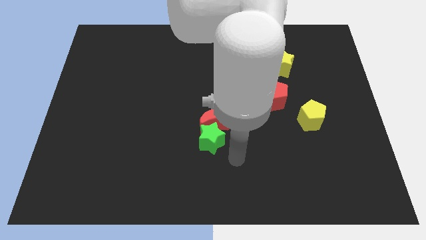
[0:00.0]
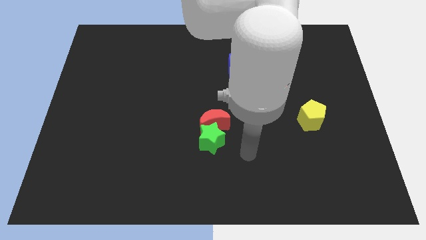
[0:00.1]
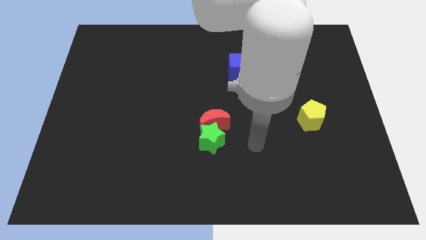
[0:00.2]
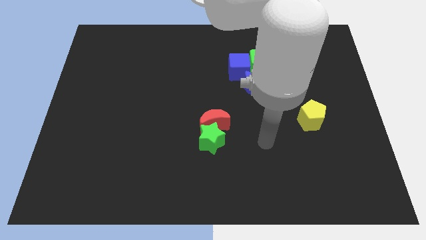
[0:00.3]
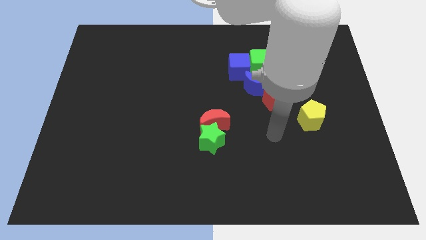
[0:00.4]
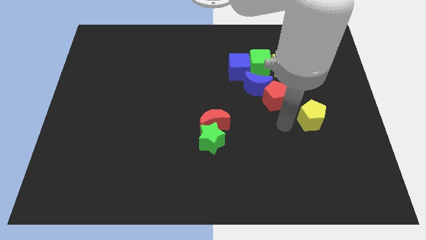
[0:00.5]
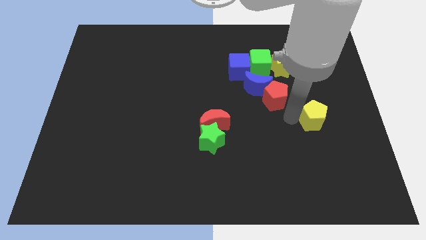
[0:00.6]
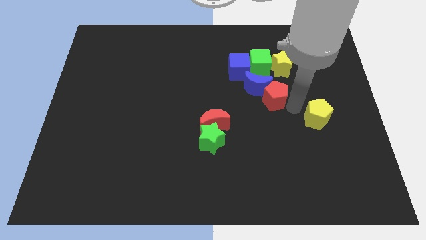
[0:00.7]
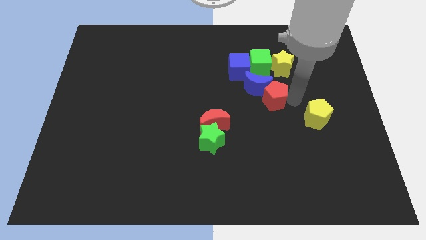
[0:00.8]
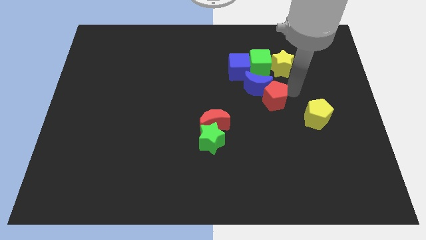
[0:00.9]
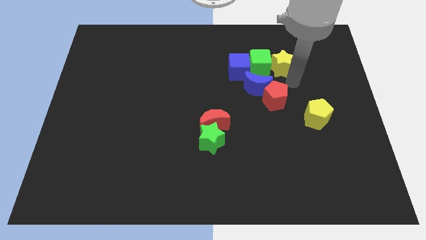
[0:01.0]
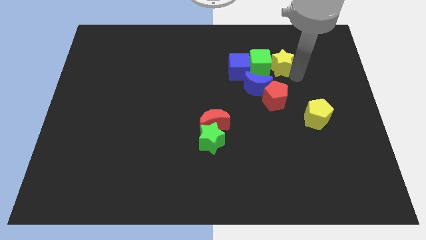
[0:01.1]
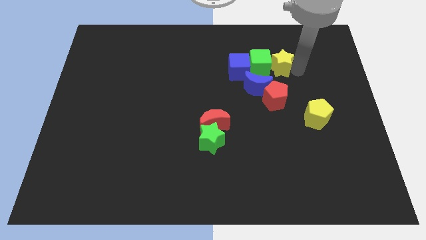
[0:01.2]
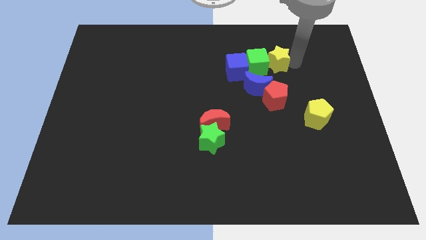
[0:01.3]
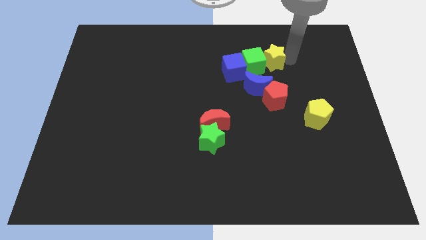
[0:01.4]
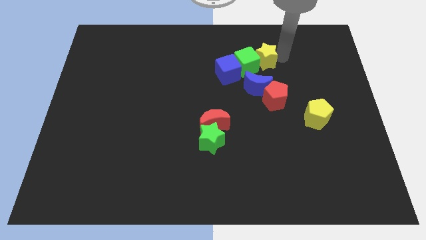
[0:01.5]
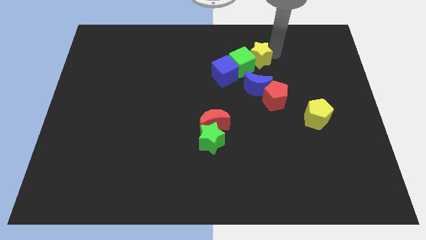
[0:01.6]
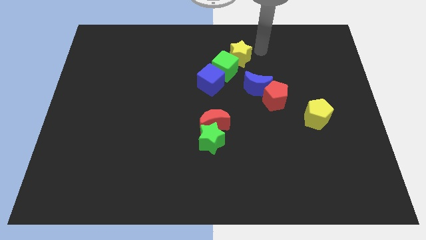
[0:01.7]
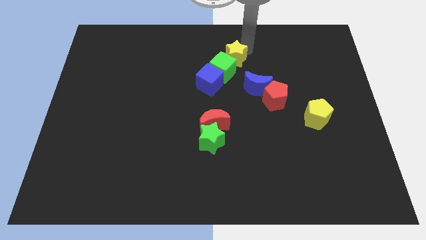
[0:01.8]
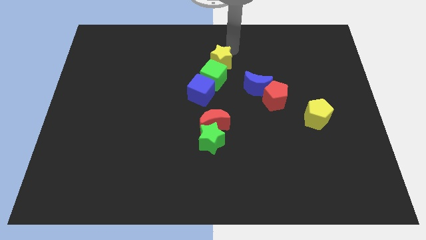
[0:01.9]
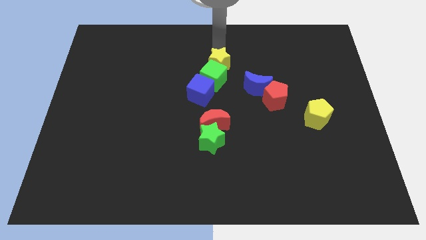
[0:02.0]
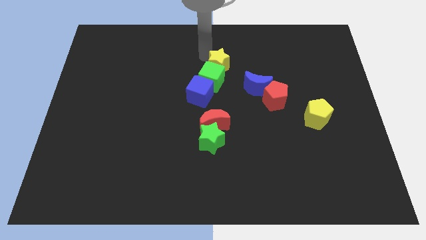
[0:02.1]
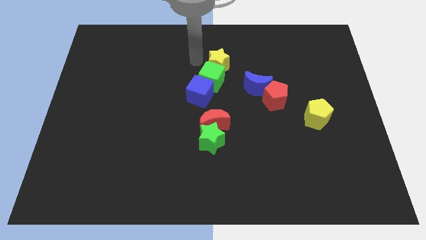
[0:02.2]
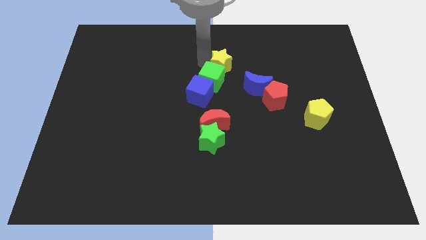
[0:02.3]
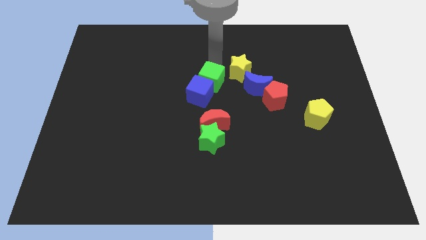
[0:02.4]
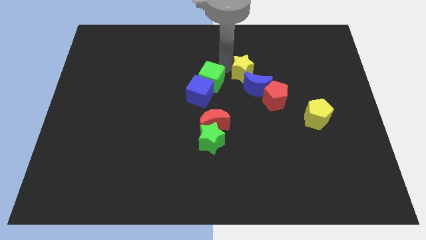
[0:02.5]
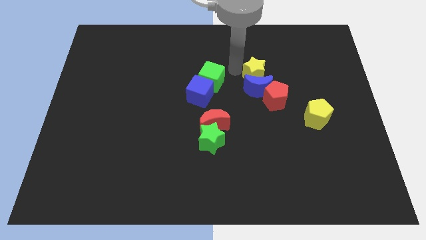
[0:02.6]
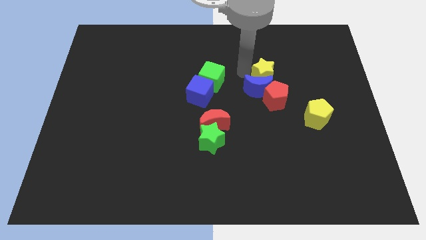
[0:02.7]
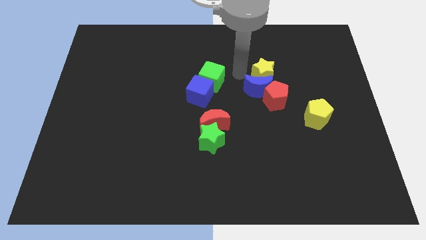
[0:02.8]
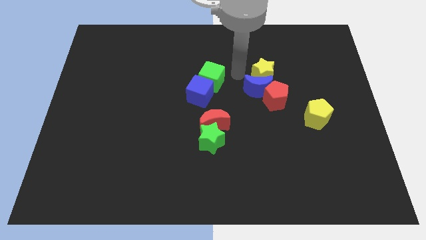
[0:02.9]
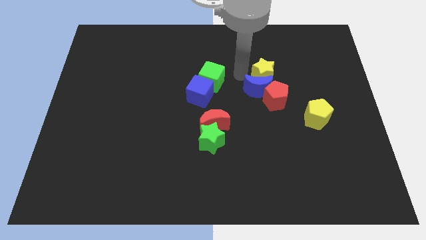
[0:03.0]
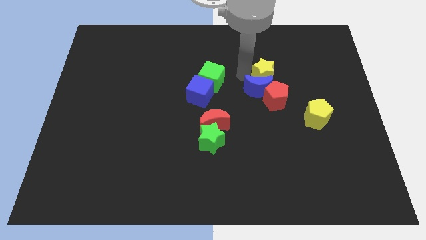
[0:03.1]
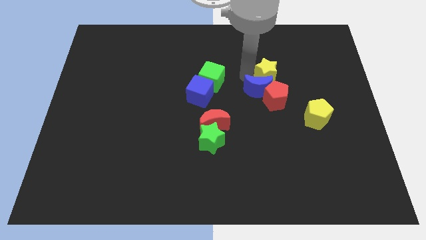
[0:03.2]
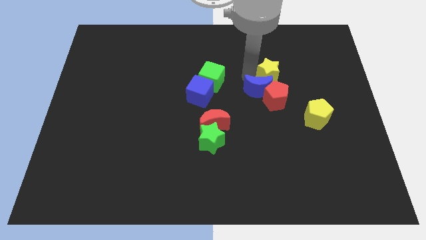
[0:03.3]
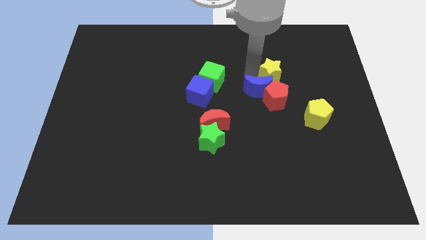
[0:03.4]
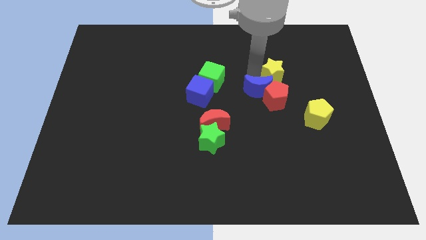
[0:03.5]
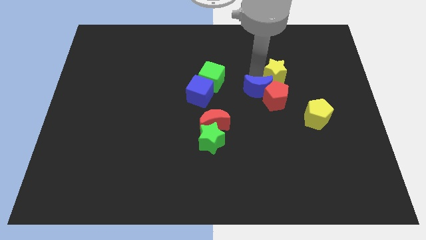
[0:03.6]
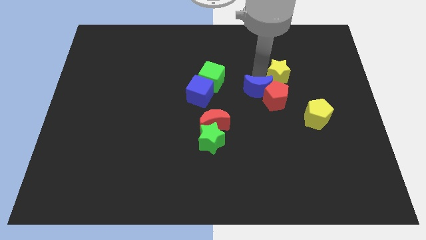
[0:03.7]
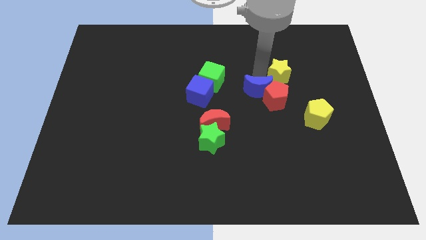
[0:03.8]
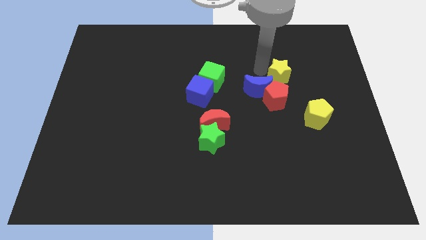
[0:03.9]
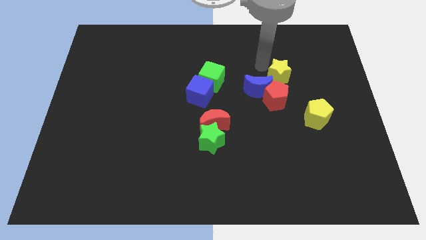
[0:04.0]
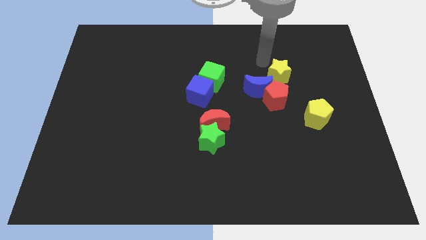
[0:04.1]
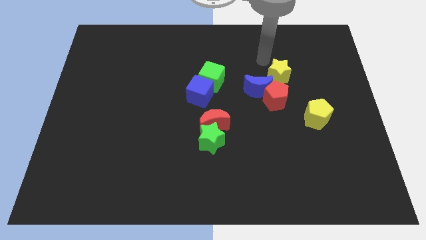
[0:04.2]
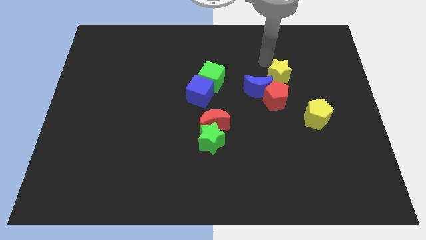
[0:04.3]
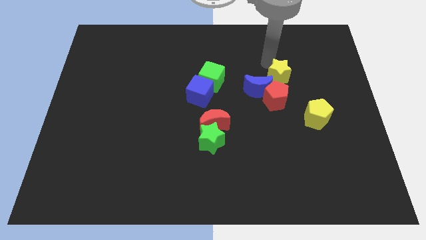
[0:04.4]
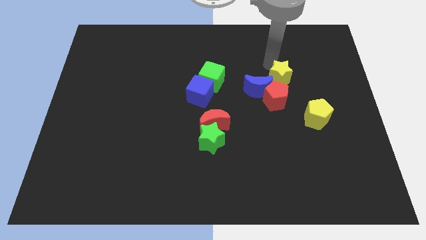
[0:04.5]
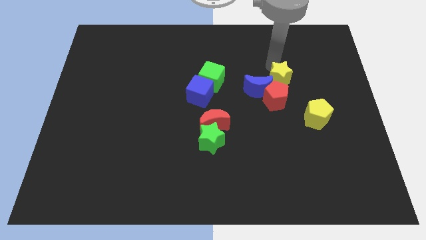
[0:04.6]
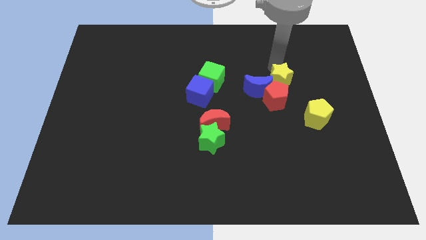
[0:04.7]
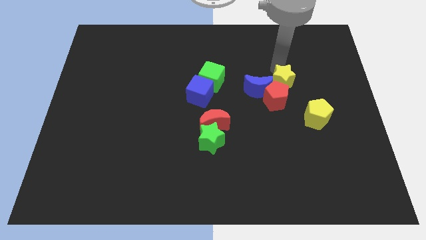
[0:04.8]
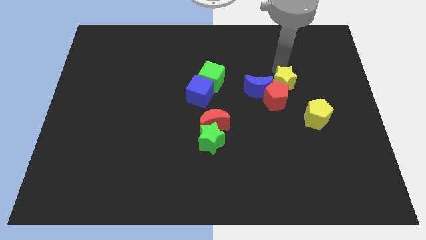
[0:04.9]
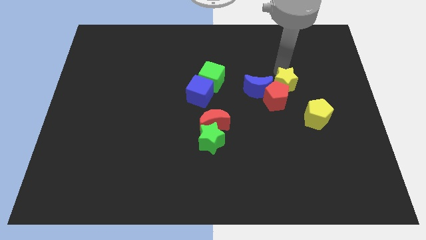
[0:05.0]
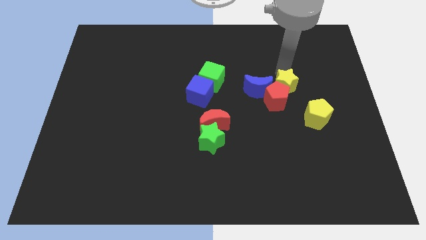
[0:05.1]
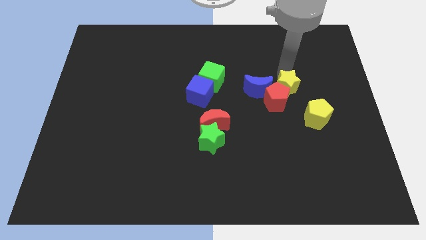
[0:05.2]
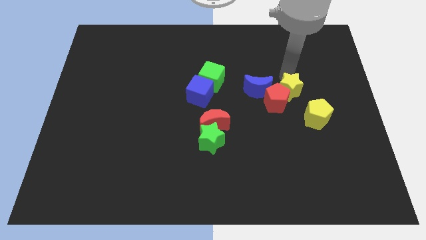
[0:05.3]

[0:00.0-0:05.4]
move the yellow star downwards somewhat

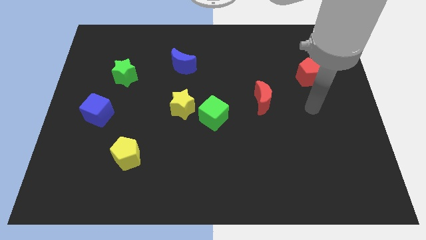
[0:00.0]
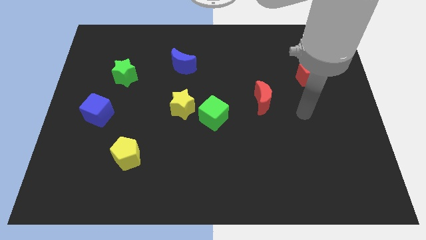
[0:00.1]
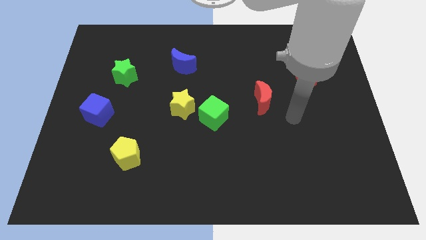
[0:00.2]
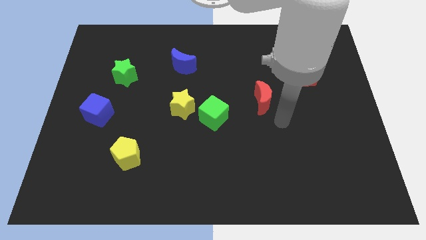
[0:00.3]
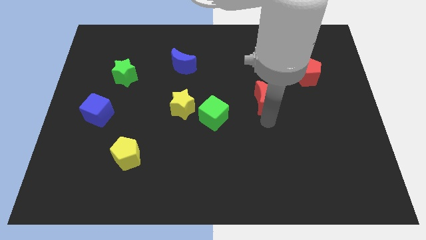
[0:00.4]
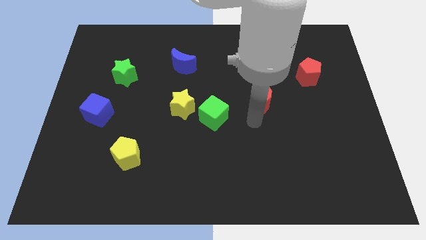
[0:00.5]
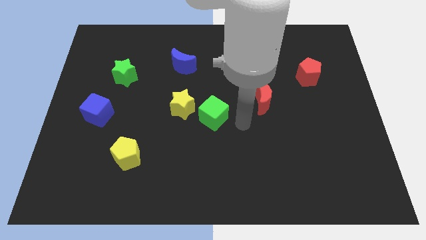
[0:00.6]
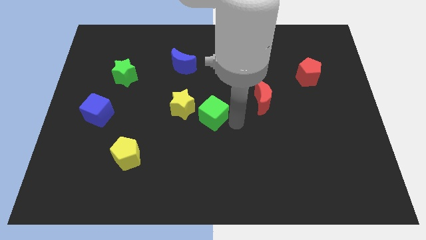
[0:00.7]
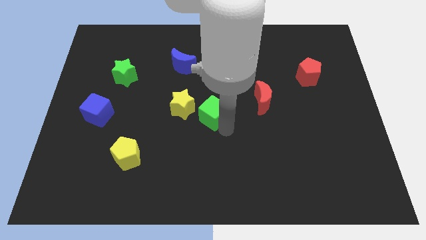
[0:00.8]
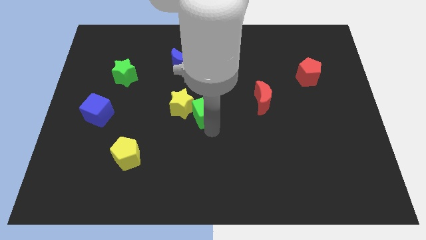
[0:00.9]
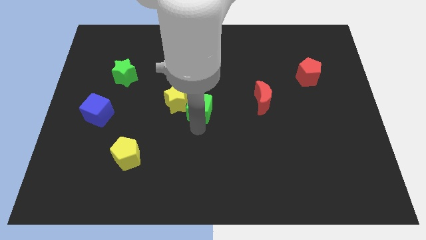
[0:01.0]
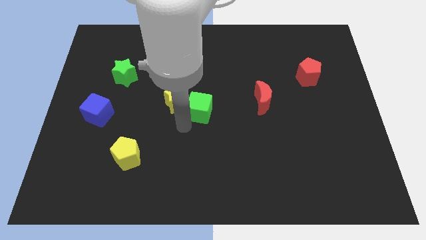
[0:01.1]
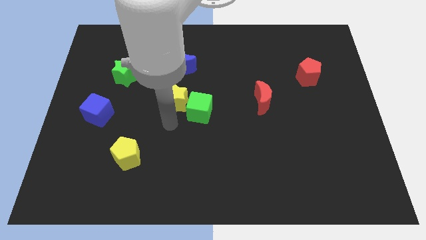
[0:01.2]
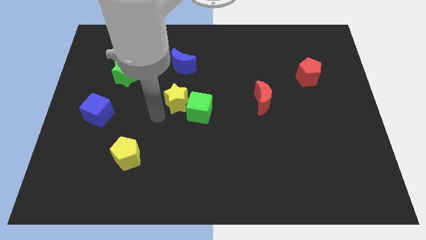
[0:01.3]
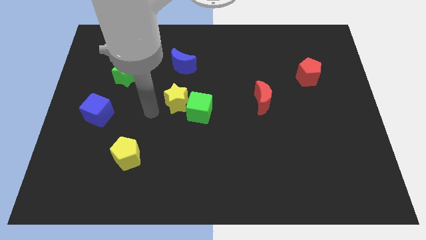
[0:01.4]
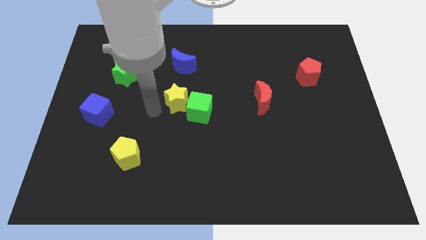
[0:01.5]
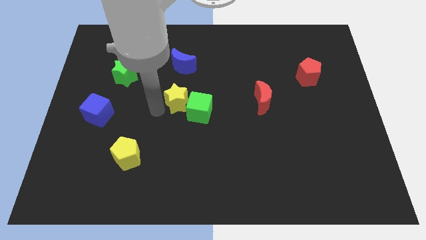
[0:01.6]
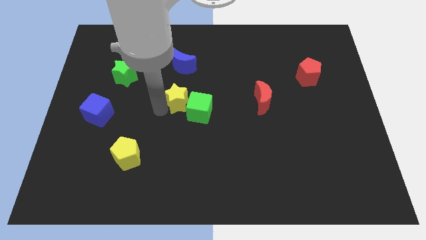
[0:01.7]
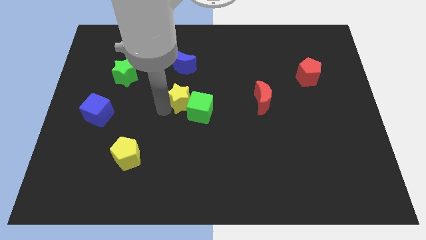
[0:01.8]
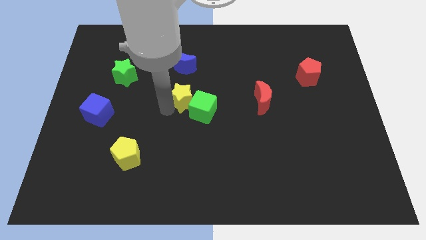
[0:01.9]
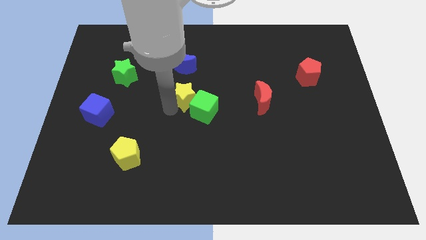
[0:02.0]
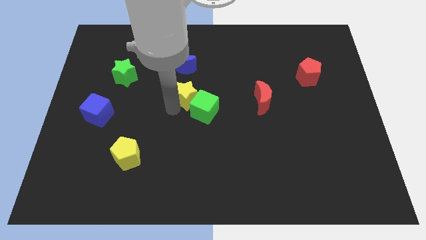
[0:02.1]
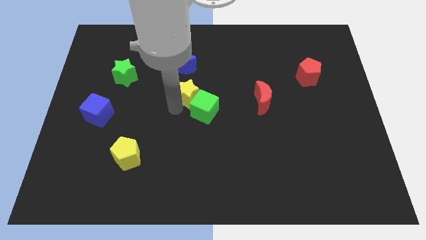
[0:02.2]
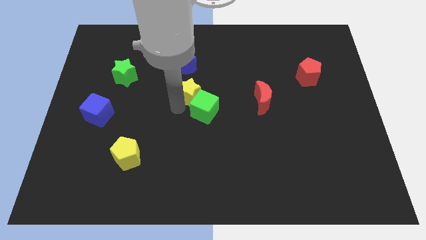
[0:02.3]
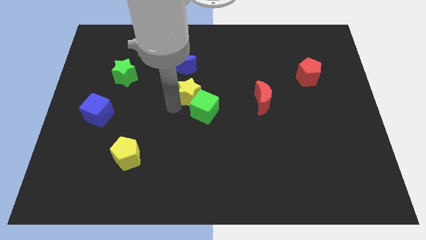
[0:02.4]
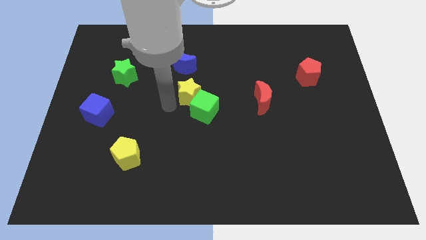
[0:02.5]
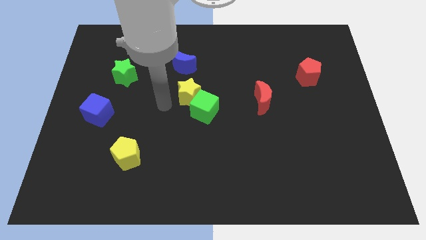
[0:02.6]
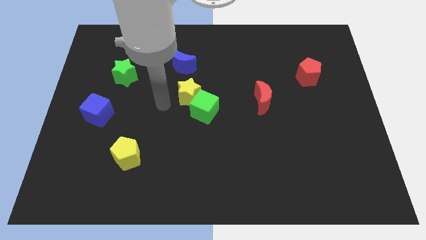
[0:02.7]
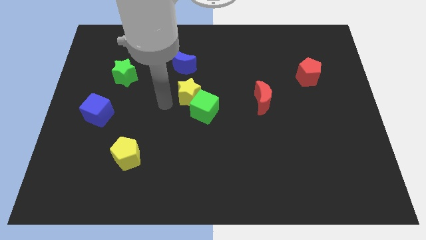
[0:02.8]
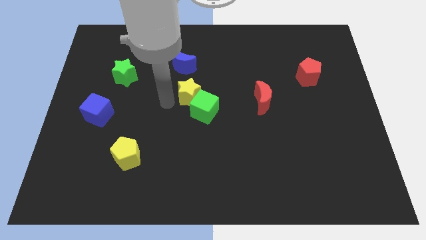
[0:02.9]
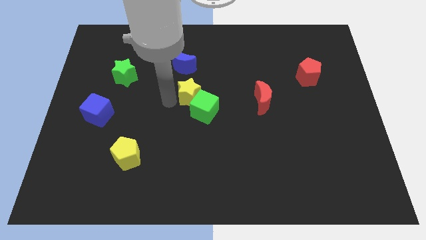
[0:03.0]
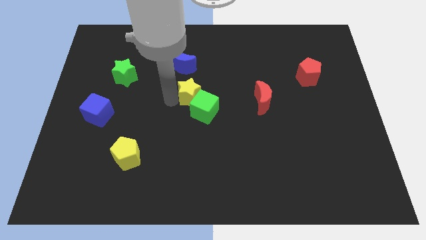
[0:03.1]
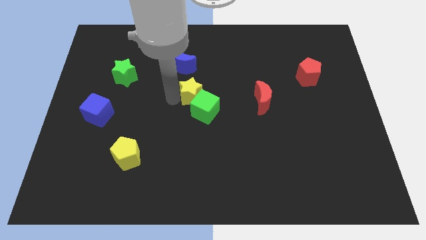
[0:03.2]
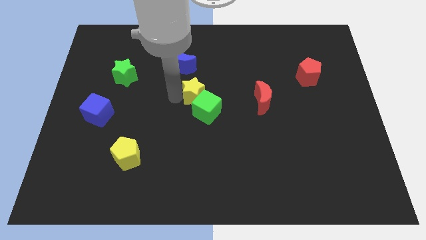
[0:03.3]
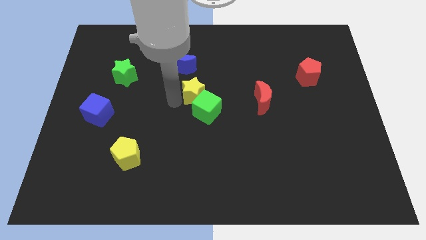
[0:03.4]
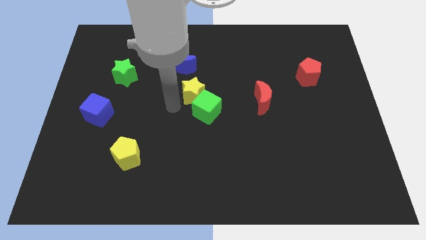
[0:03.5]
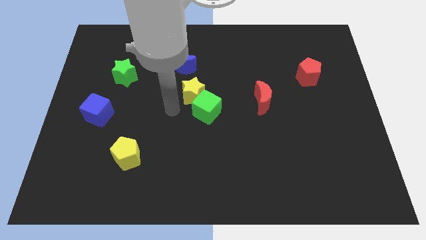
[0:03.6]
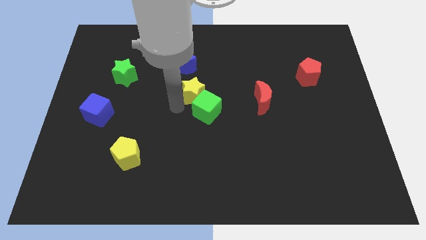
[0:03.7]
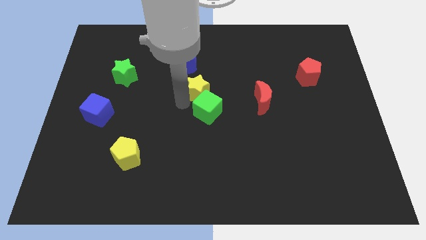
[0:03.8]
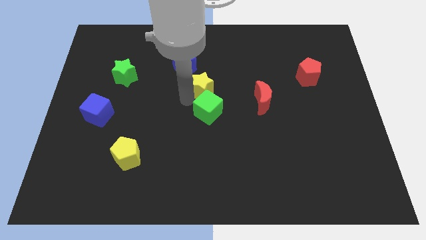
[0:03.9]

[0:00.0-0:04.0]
slide the yellow star upwards and to the right diagonally a little
